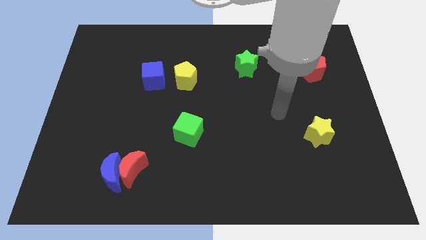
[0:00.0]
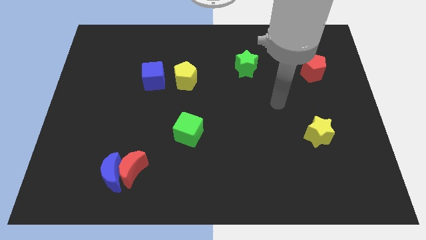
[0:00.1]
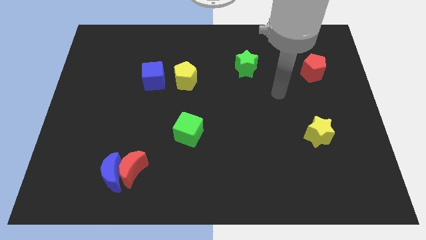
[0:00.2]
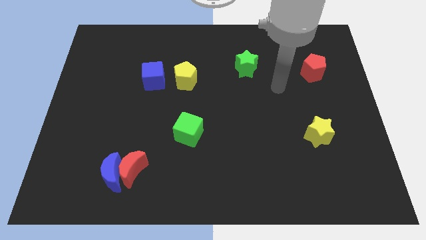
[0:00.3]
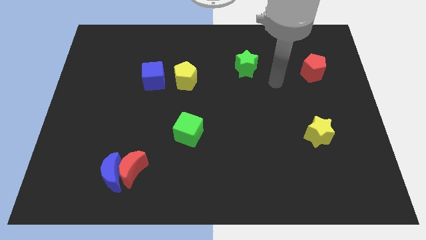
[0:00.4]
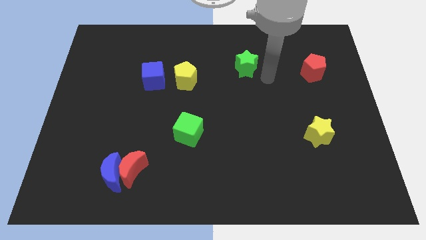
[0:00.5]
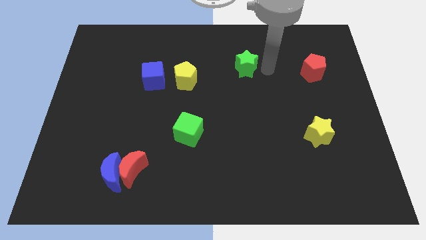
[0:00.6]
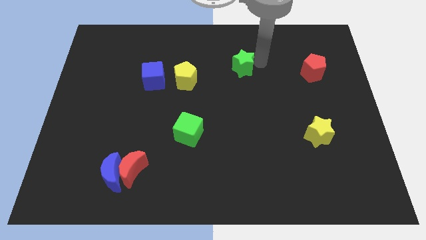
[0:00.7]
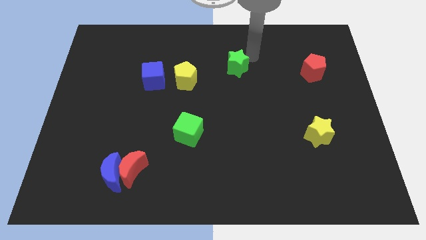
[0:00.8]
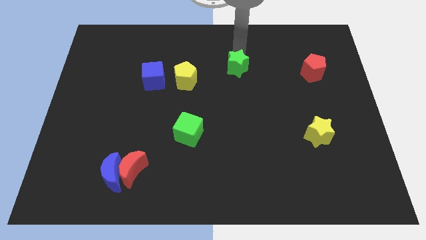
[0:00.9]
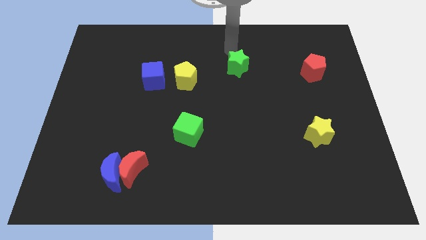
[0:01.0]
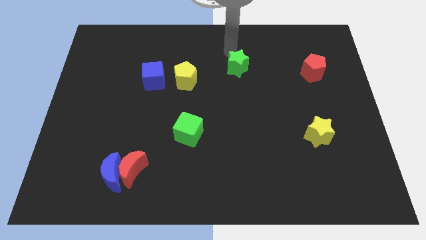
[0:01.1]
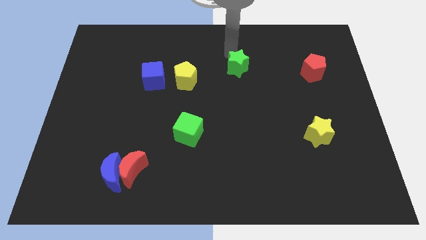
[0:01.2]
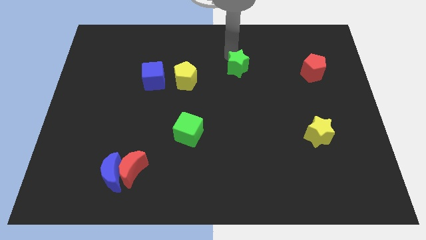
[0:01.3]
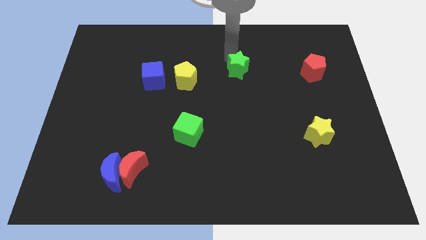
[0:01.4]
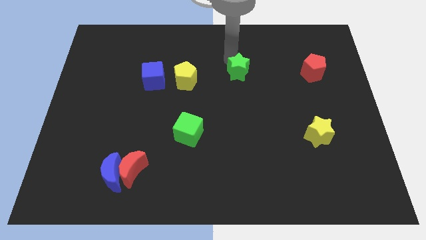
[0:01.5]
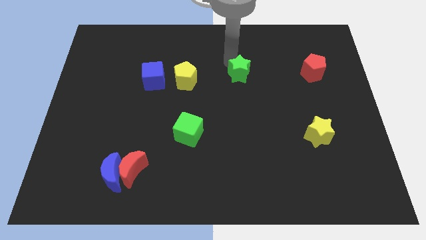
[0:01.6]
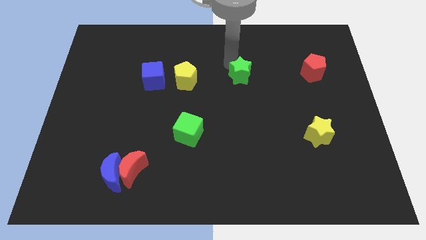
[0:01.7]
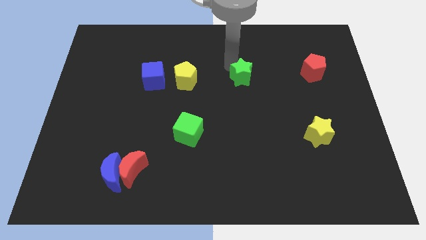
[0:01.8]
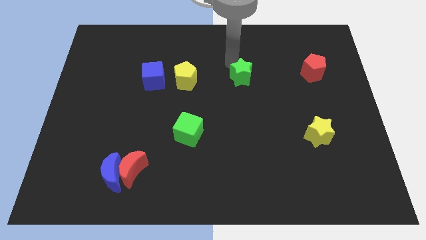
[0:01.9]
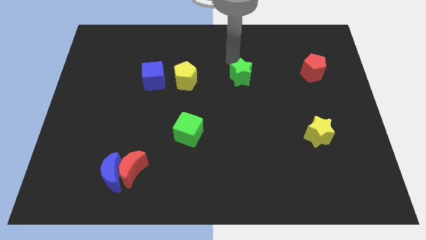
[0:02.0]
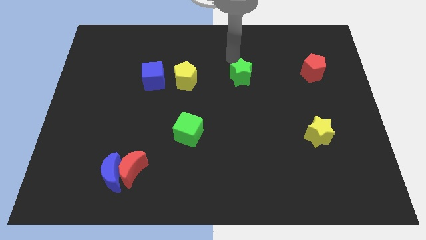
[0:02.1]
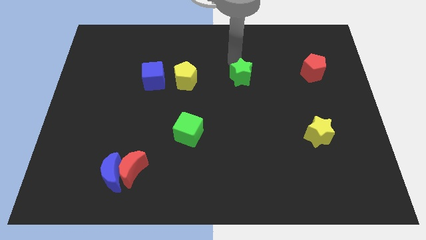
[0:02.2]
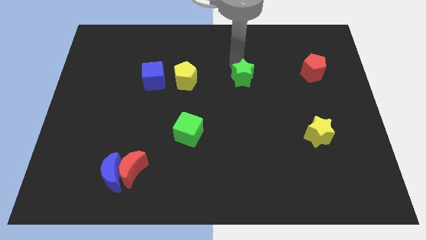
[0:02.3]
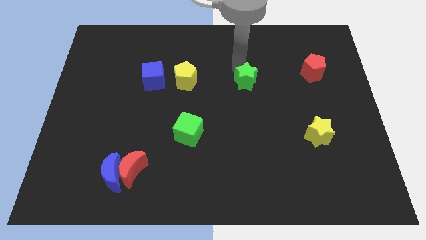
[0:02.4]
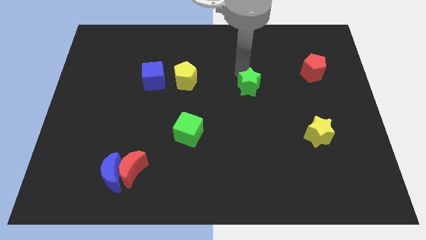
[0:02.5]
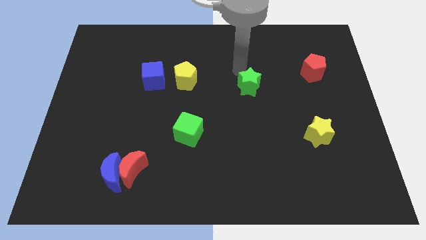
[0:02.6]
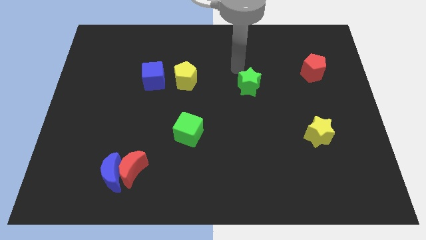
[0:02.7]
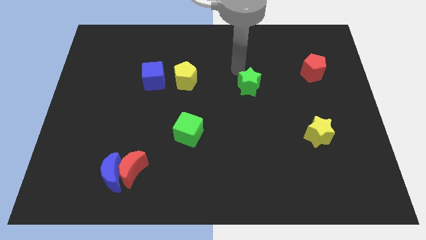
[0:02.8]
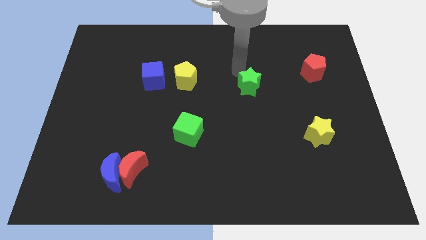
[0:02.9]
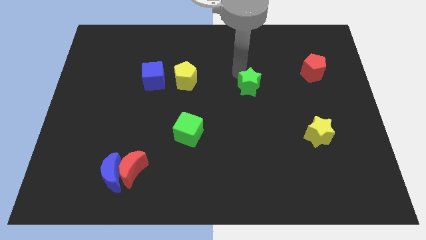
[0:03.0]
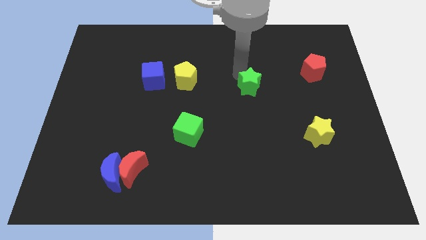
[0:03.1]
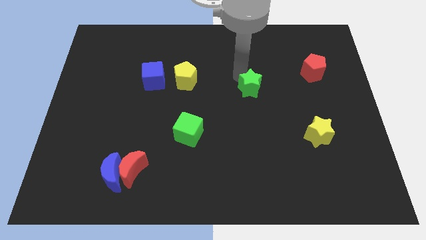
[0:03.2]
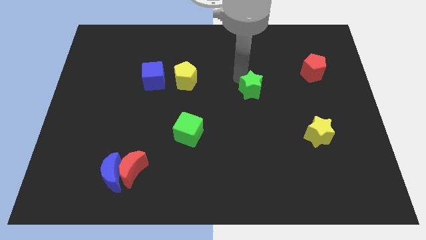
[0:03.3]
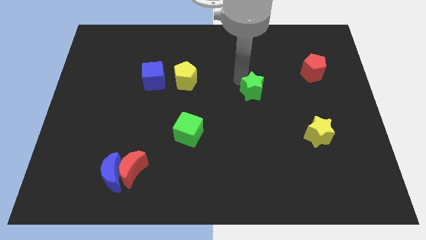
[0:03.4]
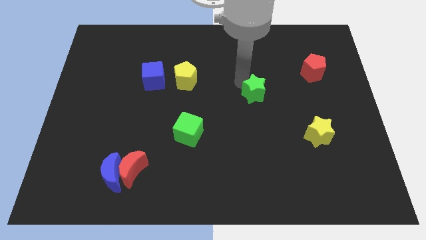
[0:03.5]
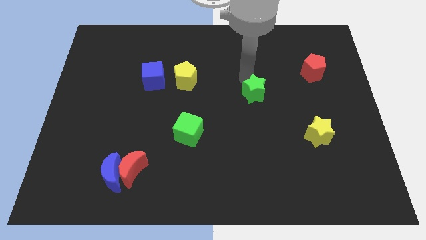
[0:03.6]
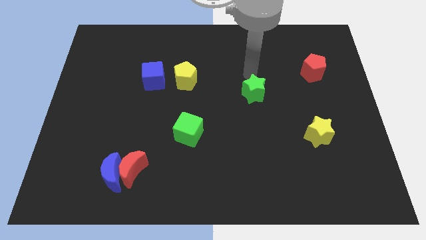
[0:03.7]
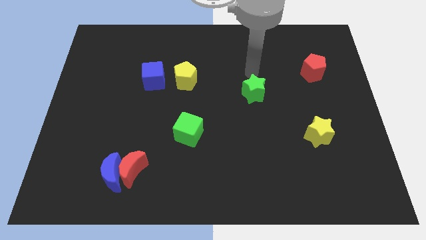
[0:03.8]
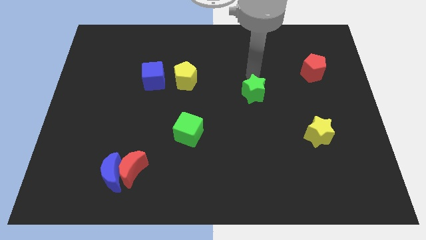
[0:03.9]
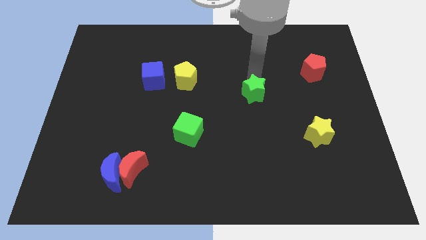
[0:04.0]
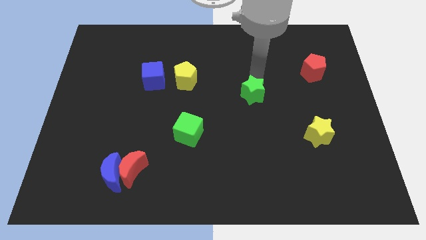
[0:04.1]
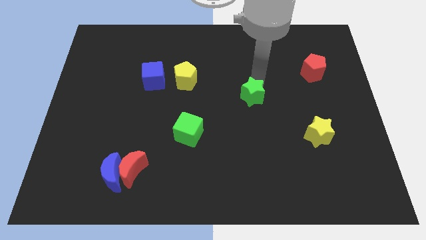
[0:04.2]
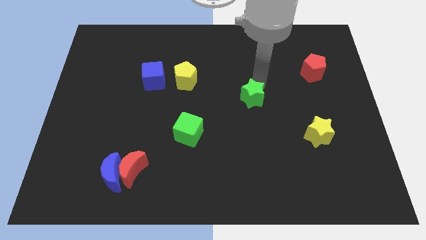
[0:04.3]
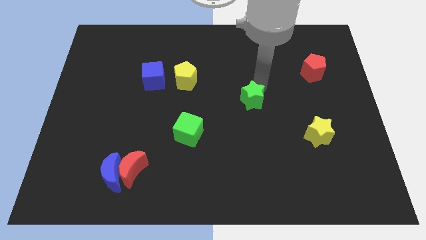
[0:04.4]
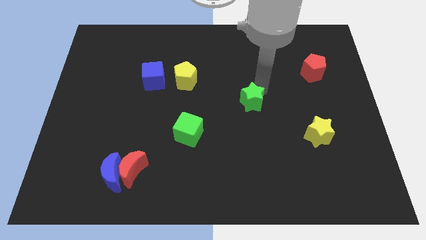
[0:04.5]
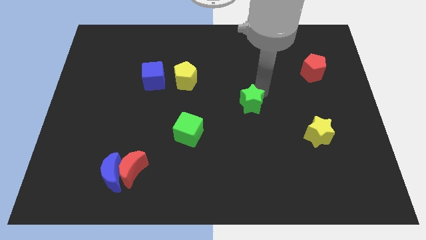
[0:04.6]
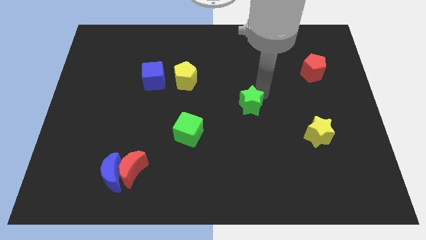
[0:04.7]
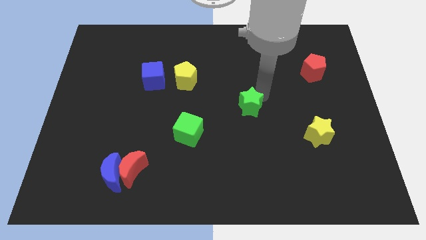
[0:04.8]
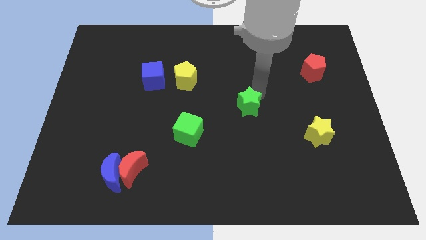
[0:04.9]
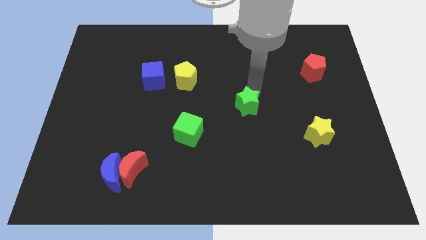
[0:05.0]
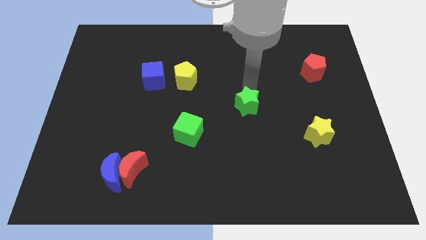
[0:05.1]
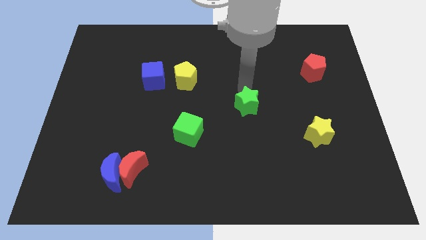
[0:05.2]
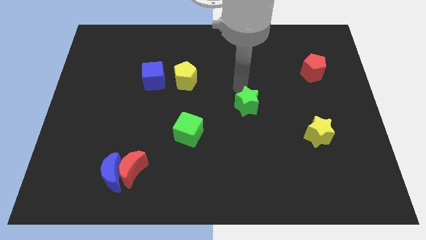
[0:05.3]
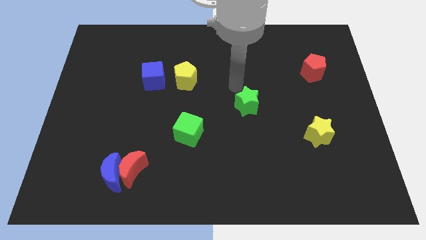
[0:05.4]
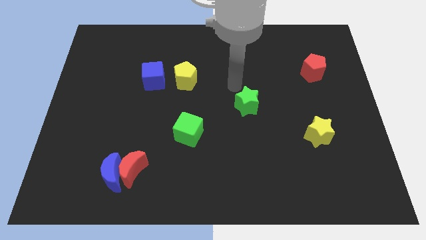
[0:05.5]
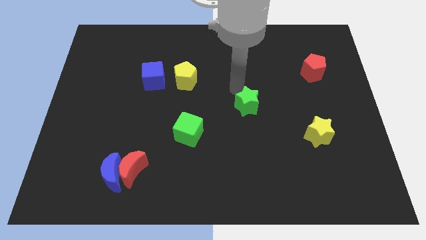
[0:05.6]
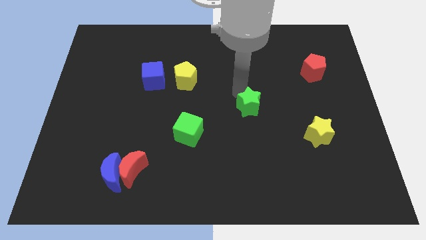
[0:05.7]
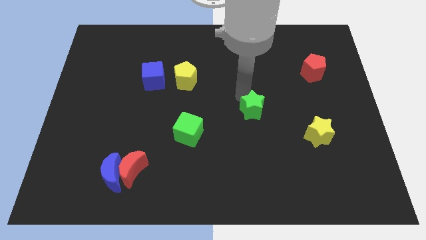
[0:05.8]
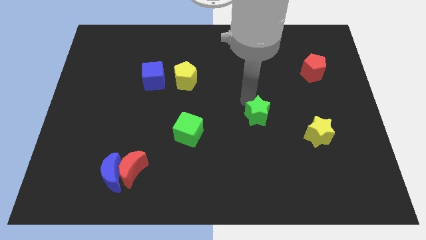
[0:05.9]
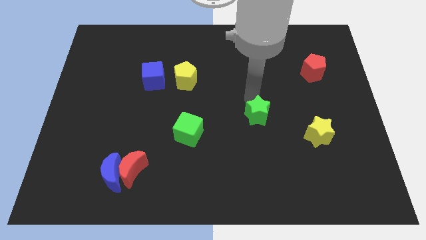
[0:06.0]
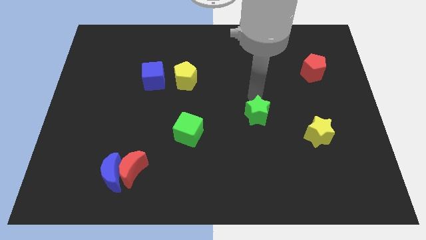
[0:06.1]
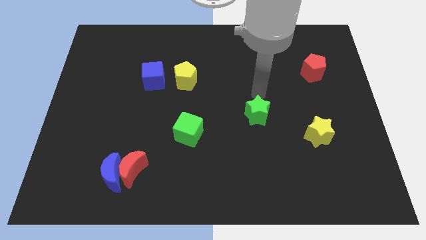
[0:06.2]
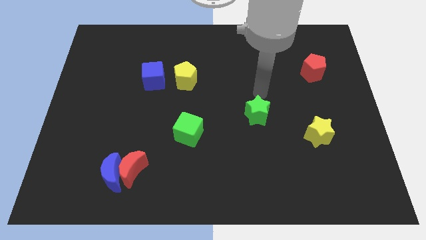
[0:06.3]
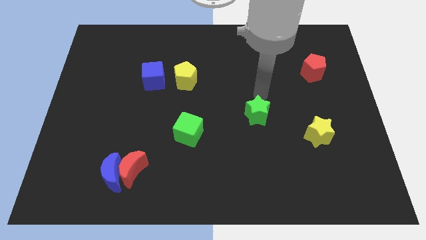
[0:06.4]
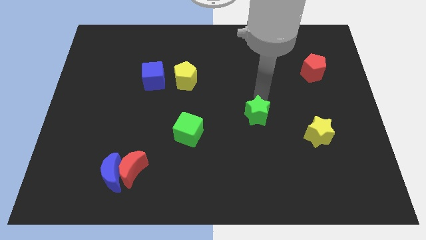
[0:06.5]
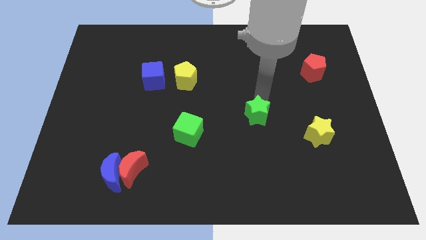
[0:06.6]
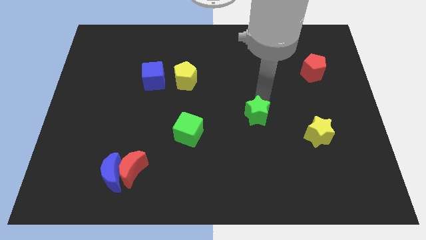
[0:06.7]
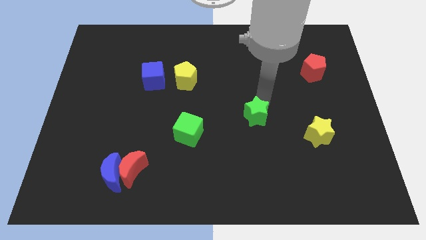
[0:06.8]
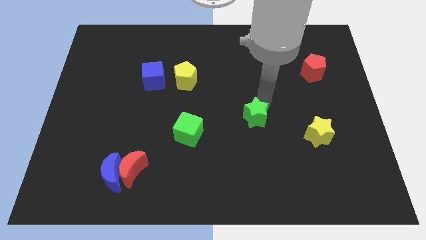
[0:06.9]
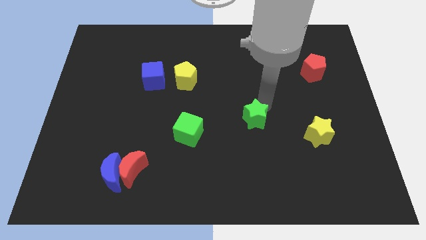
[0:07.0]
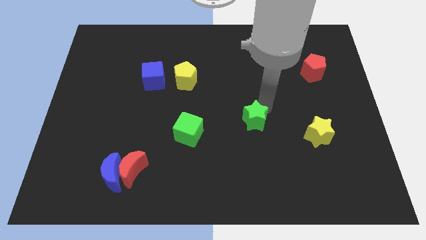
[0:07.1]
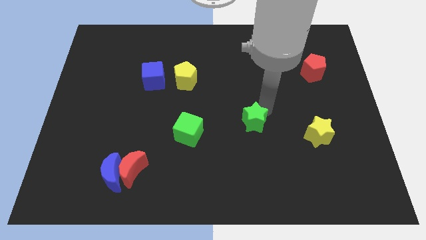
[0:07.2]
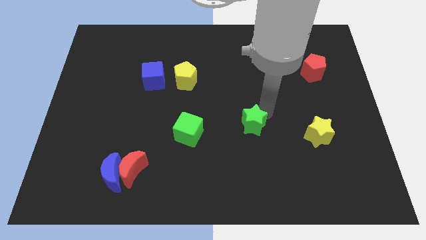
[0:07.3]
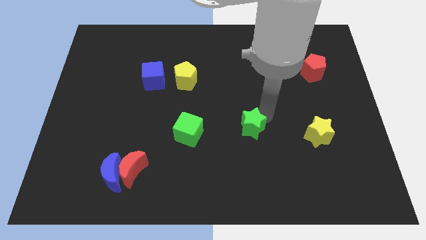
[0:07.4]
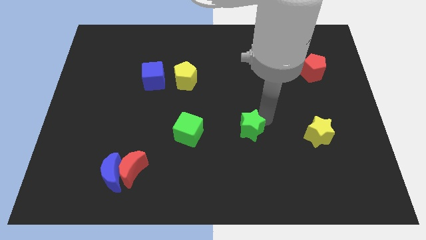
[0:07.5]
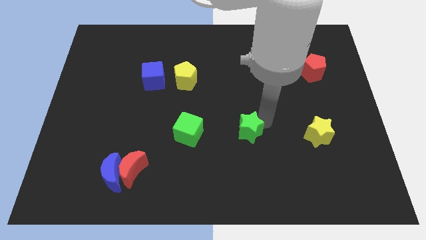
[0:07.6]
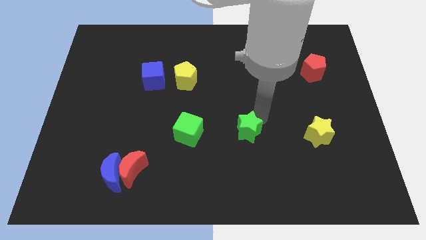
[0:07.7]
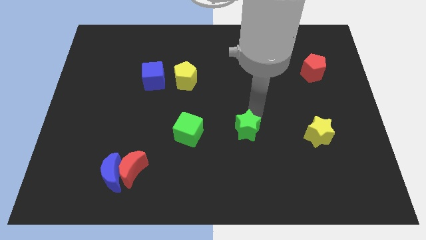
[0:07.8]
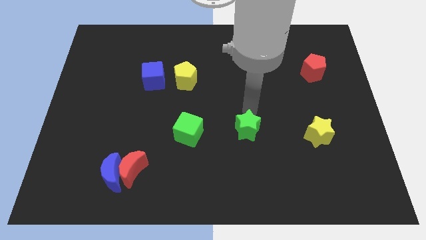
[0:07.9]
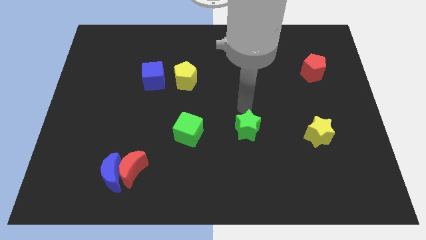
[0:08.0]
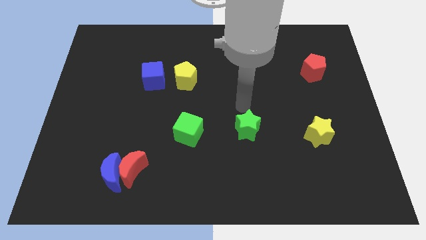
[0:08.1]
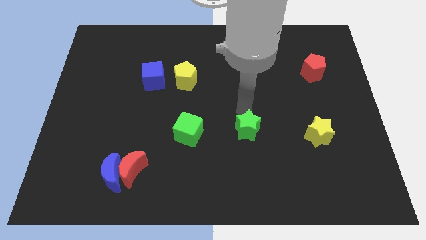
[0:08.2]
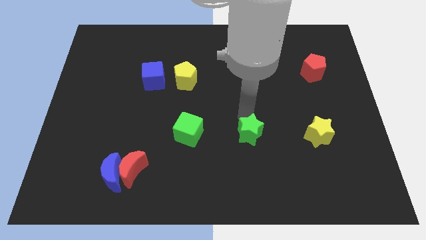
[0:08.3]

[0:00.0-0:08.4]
move the green star down
